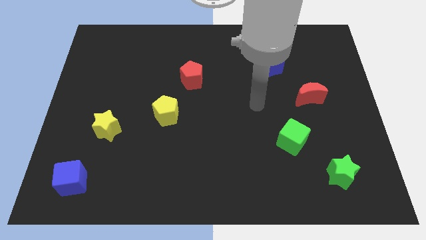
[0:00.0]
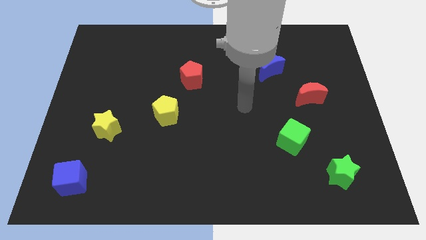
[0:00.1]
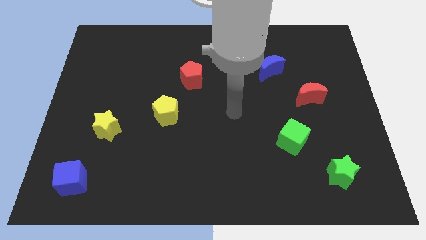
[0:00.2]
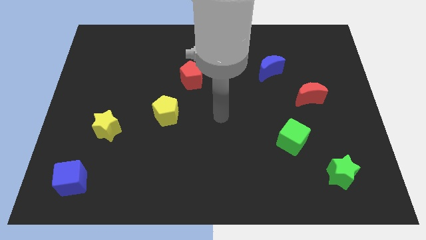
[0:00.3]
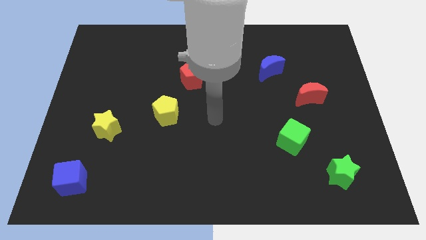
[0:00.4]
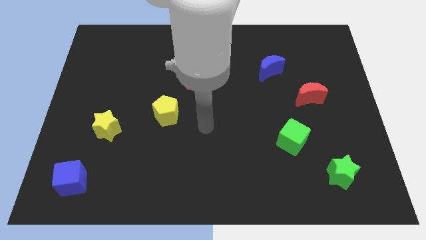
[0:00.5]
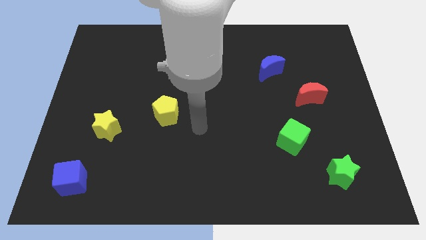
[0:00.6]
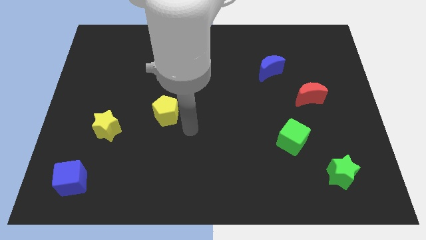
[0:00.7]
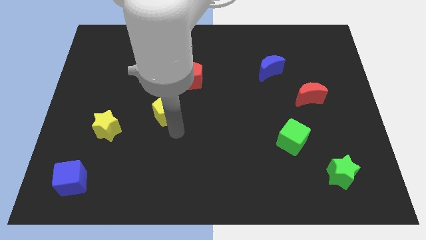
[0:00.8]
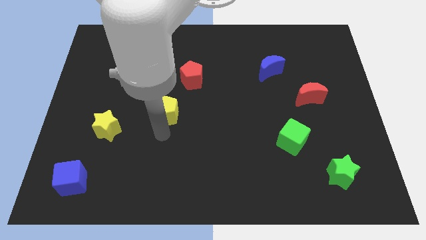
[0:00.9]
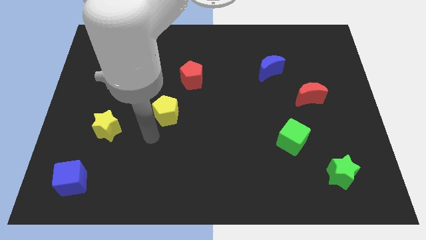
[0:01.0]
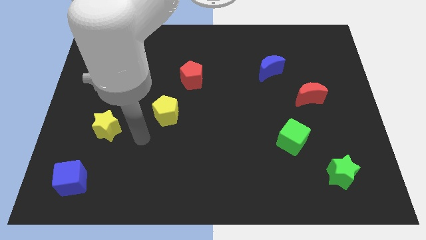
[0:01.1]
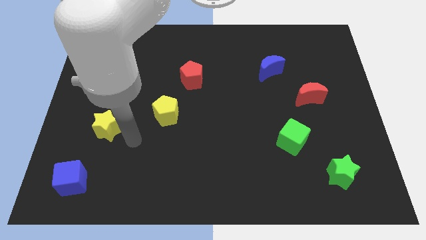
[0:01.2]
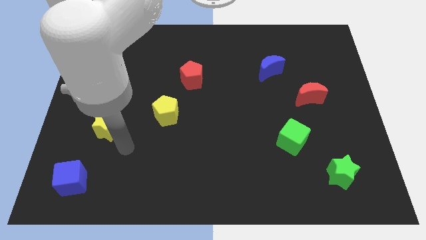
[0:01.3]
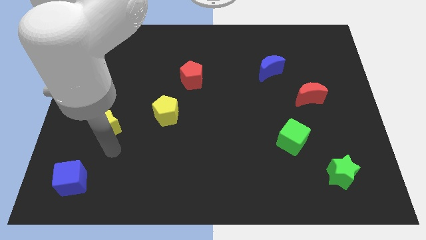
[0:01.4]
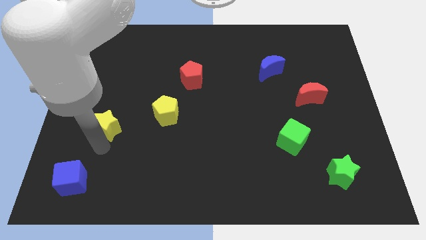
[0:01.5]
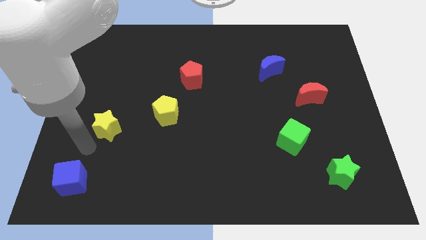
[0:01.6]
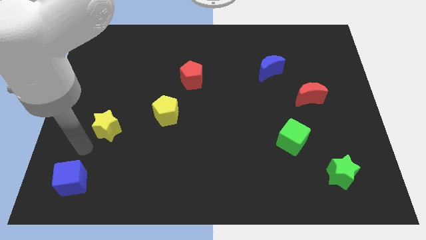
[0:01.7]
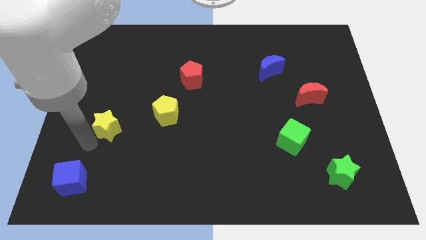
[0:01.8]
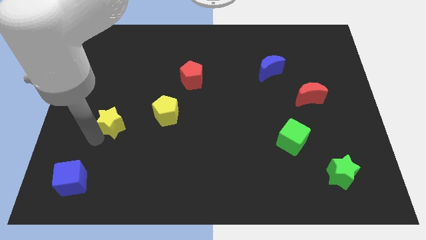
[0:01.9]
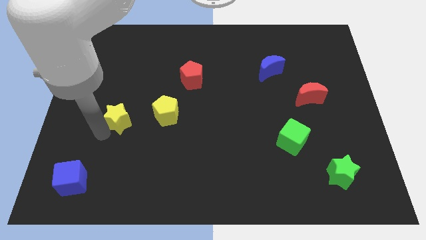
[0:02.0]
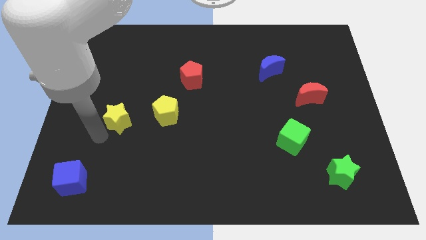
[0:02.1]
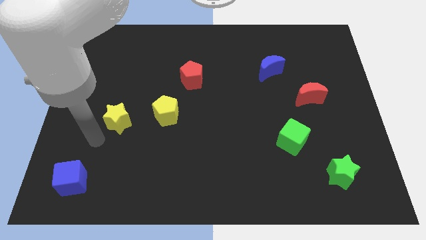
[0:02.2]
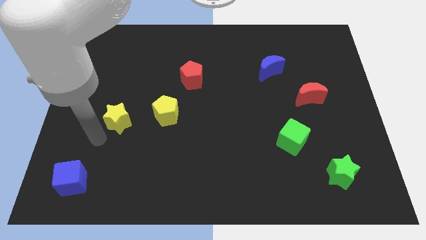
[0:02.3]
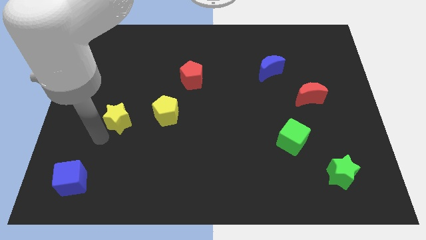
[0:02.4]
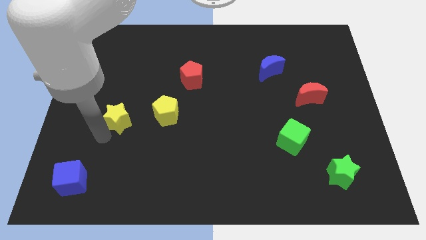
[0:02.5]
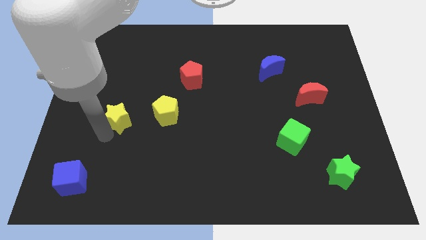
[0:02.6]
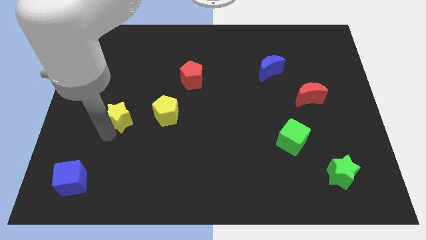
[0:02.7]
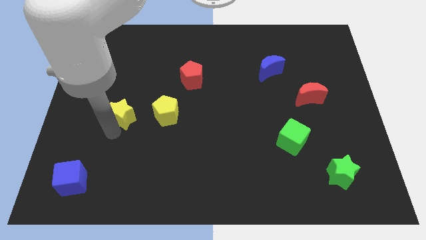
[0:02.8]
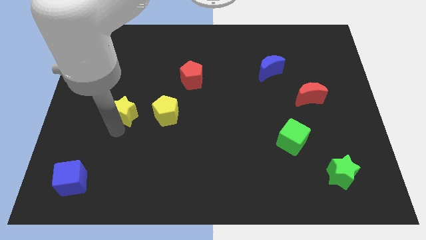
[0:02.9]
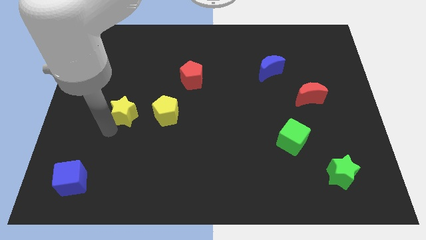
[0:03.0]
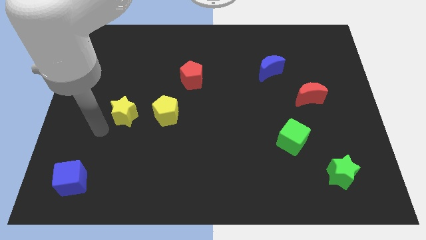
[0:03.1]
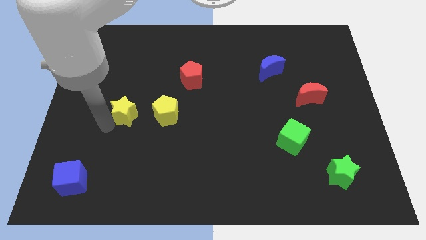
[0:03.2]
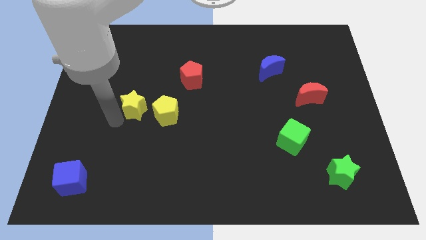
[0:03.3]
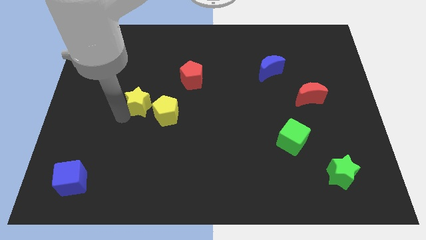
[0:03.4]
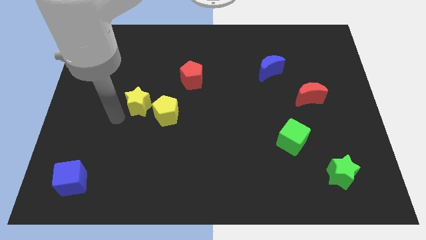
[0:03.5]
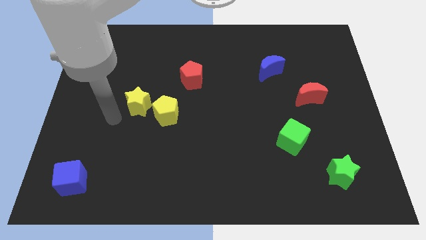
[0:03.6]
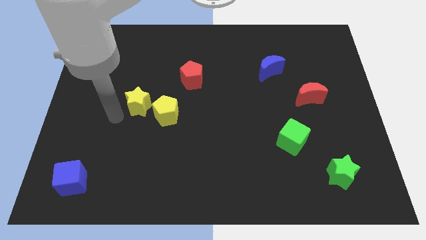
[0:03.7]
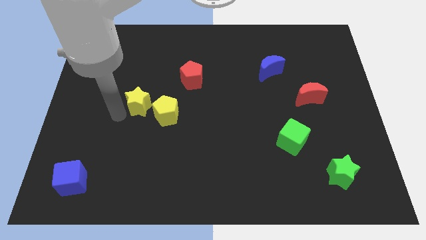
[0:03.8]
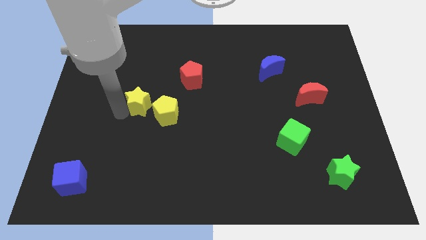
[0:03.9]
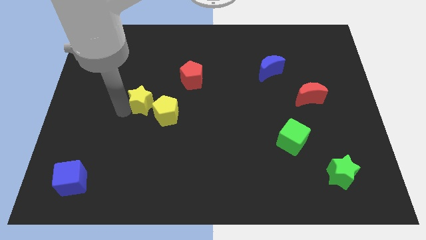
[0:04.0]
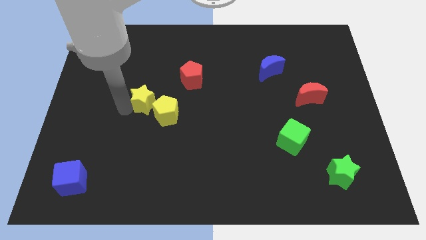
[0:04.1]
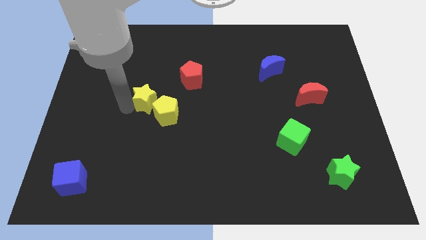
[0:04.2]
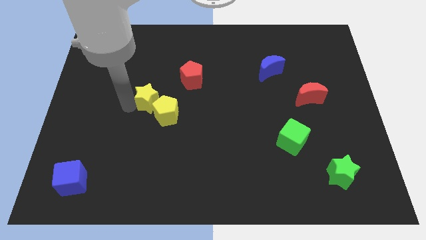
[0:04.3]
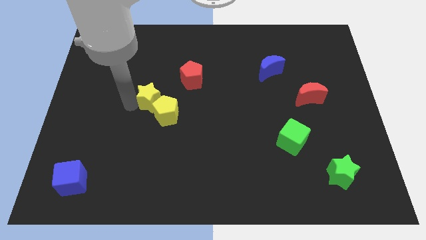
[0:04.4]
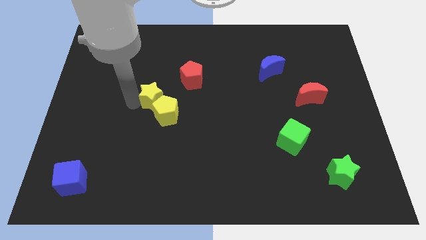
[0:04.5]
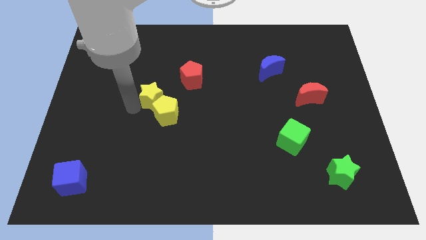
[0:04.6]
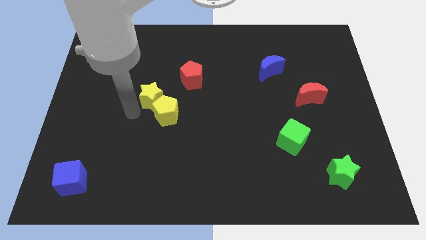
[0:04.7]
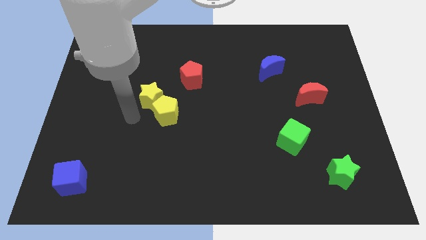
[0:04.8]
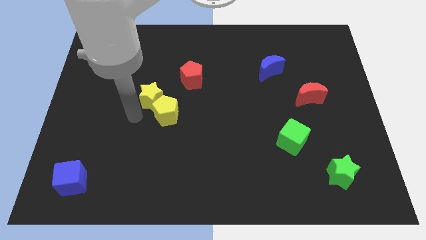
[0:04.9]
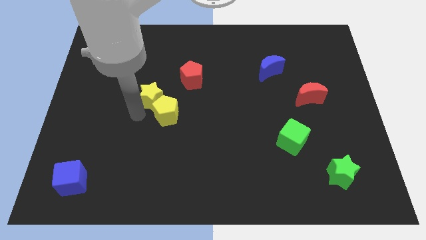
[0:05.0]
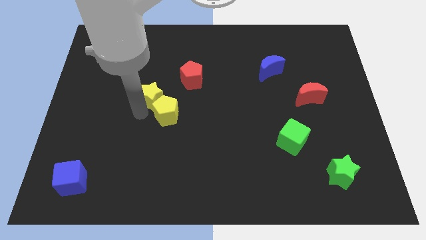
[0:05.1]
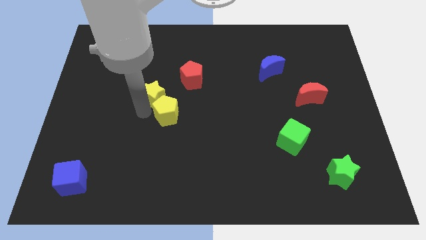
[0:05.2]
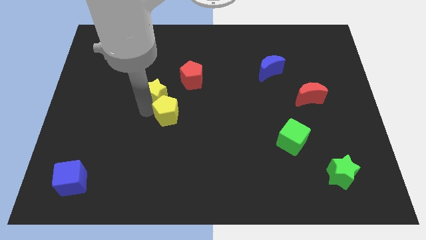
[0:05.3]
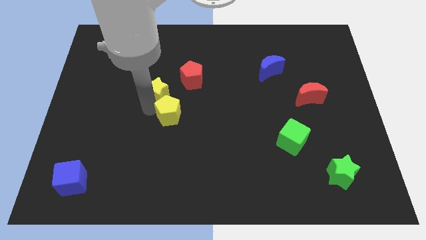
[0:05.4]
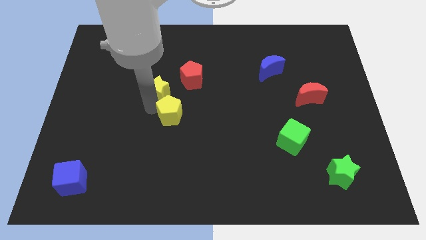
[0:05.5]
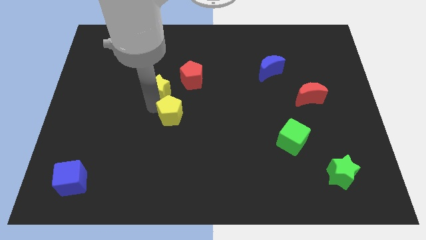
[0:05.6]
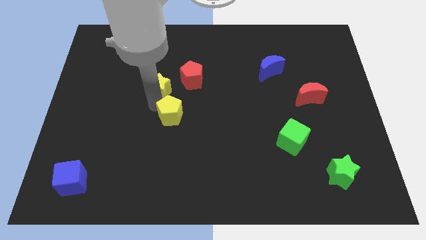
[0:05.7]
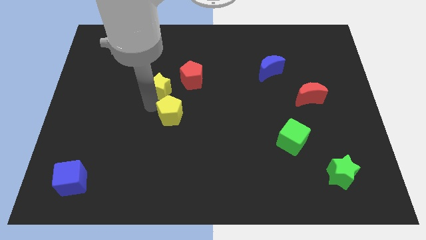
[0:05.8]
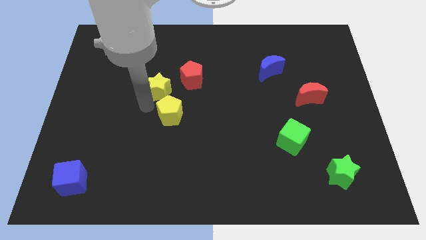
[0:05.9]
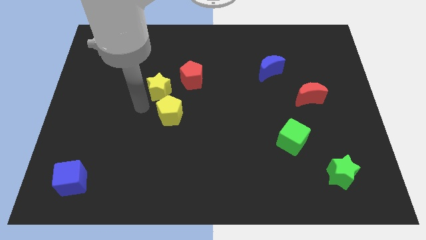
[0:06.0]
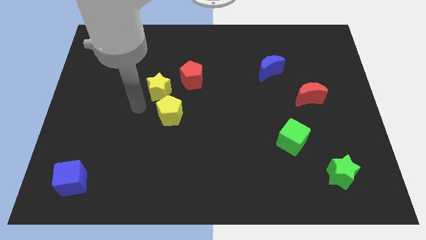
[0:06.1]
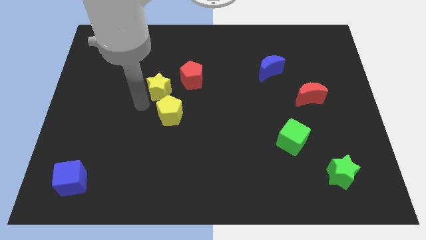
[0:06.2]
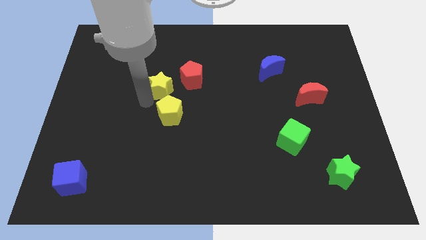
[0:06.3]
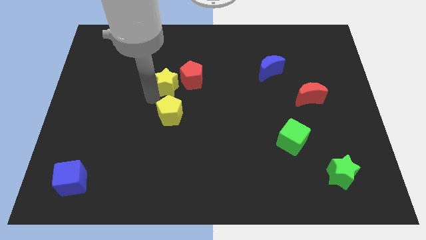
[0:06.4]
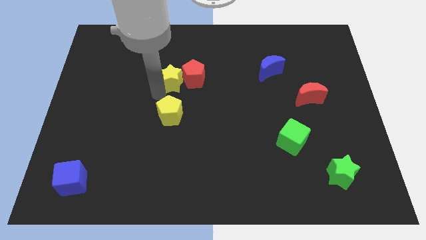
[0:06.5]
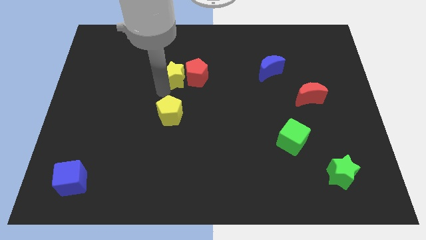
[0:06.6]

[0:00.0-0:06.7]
slide the yellow star upwards and to the right

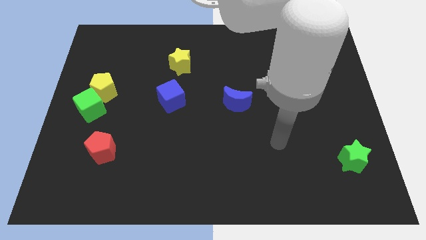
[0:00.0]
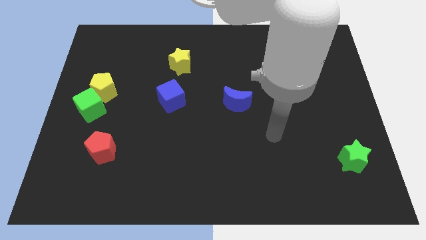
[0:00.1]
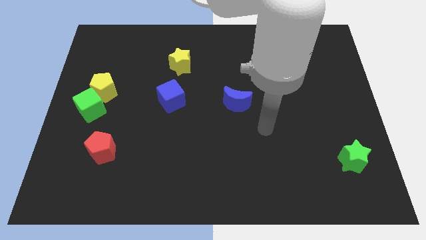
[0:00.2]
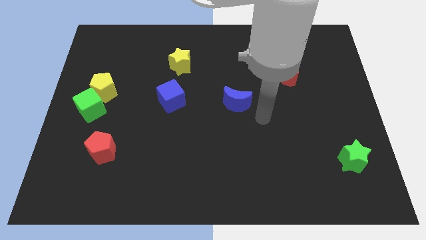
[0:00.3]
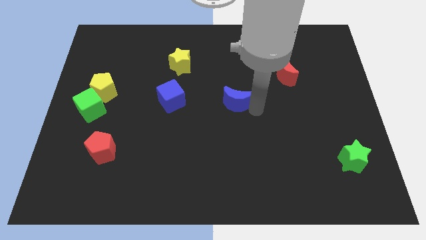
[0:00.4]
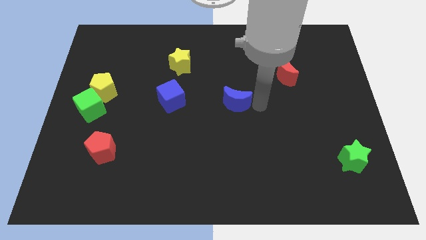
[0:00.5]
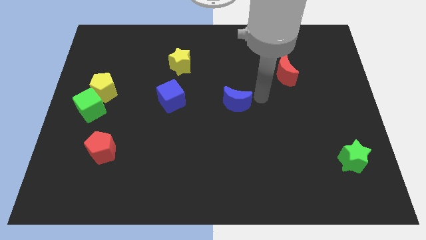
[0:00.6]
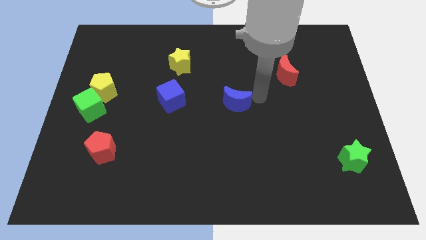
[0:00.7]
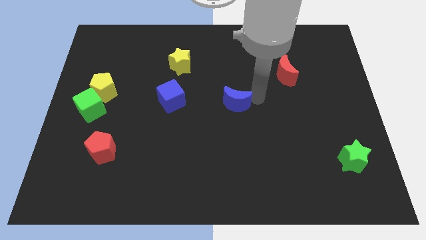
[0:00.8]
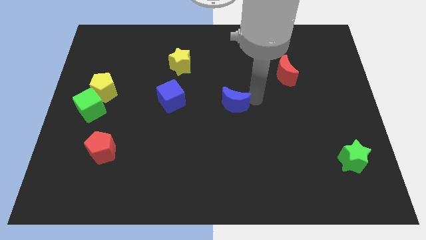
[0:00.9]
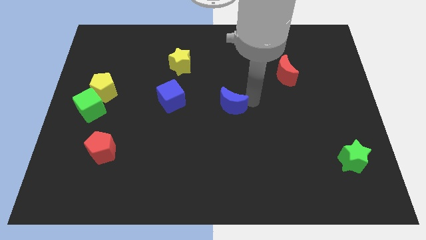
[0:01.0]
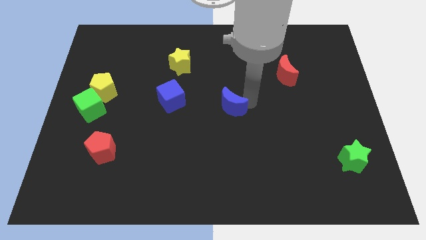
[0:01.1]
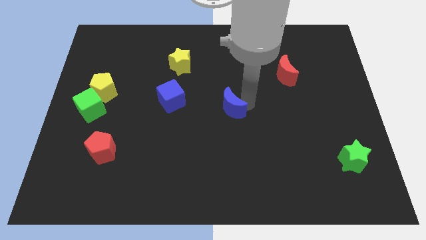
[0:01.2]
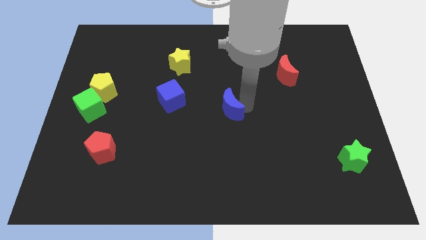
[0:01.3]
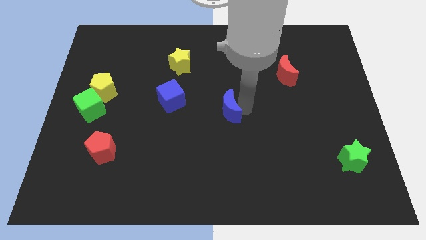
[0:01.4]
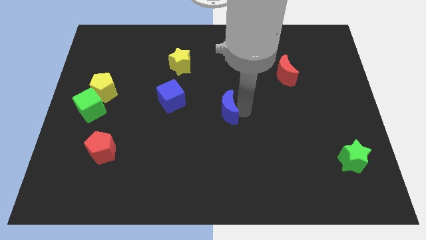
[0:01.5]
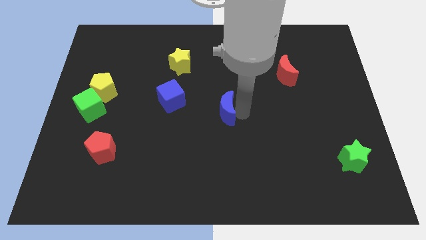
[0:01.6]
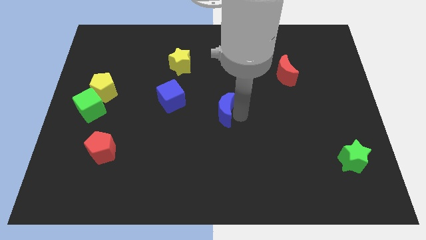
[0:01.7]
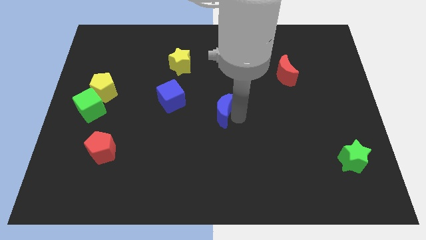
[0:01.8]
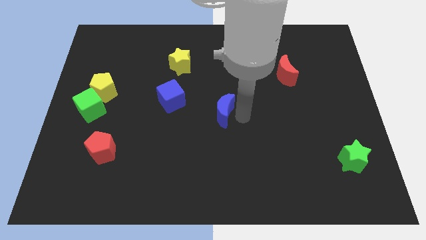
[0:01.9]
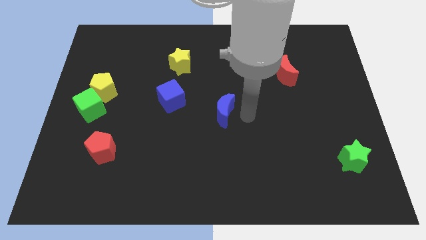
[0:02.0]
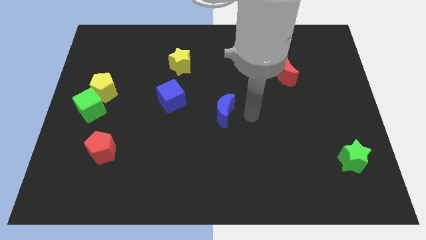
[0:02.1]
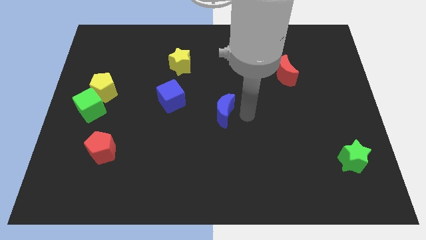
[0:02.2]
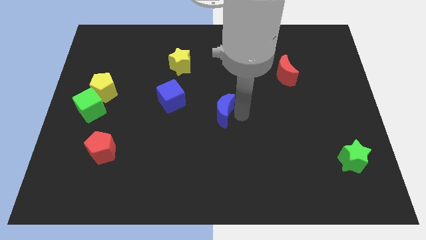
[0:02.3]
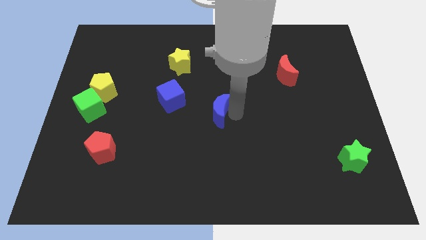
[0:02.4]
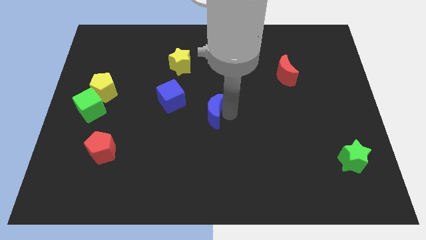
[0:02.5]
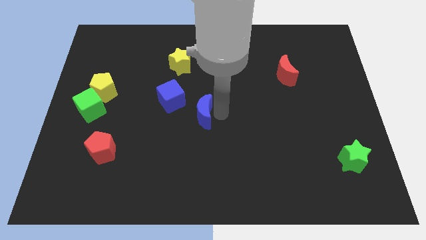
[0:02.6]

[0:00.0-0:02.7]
slide the blue moon slightly left
